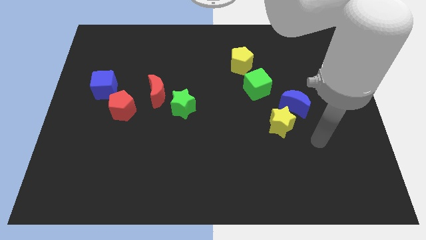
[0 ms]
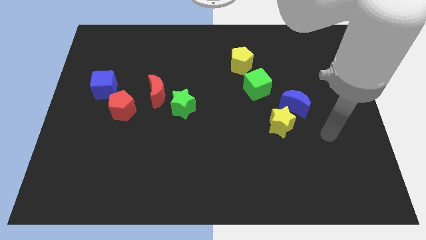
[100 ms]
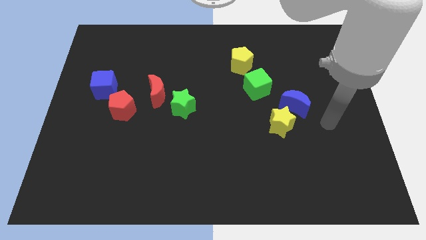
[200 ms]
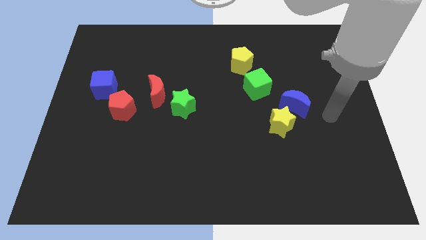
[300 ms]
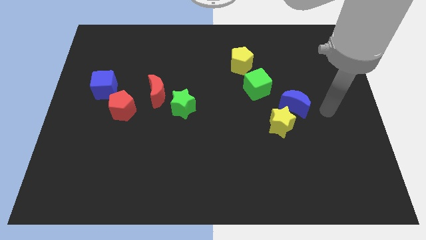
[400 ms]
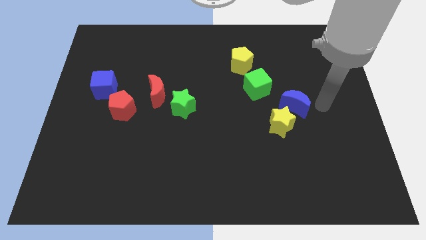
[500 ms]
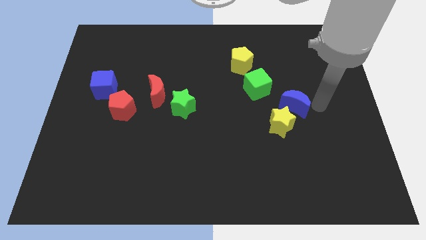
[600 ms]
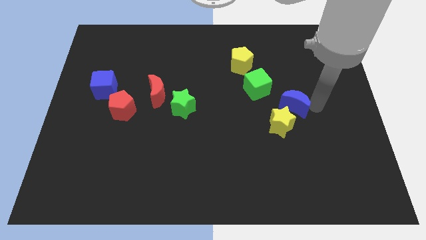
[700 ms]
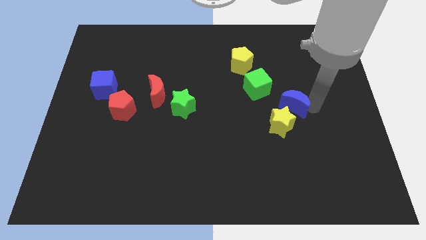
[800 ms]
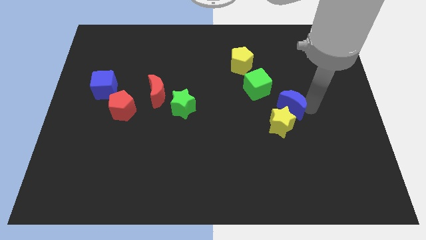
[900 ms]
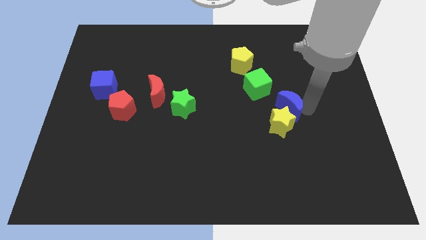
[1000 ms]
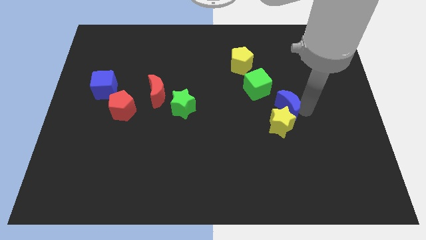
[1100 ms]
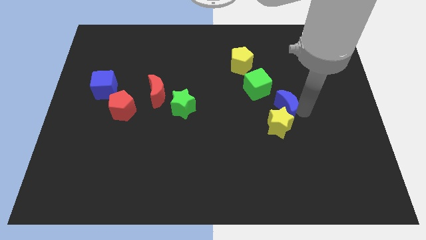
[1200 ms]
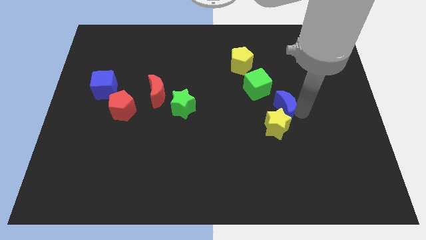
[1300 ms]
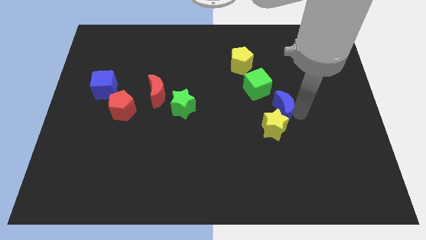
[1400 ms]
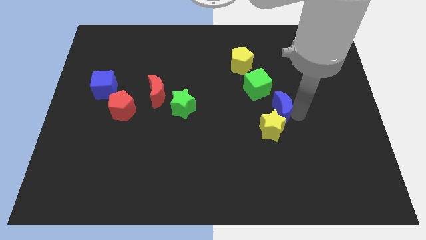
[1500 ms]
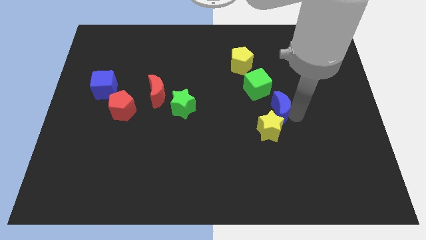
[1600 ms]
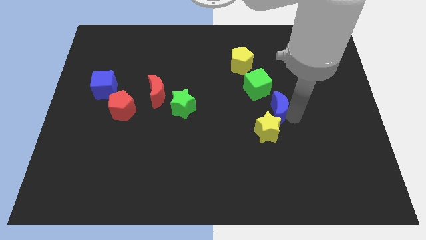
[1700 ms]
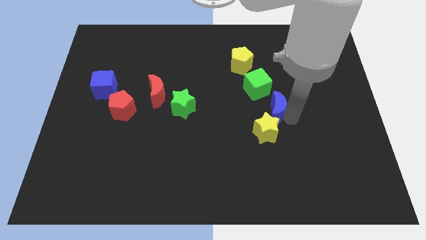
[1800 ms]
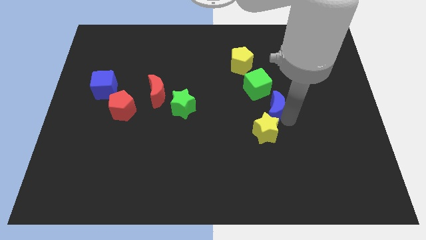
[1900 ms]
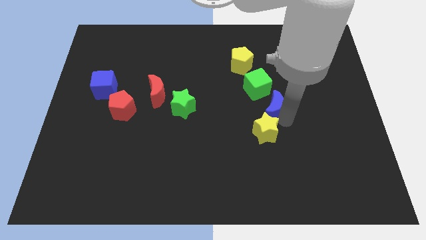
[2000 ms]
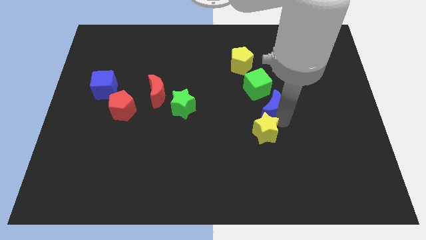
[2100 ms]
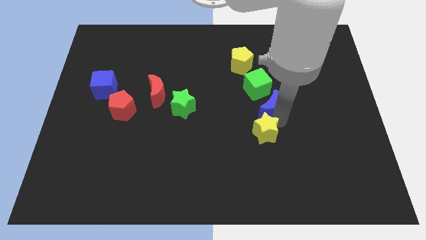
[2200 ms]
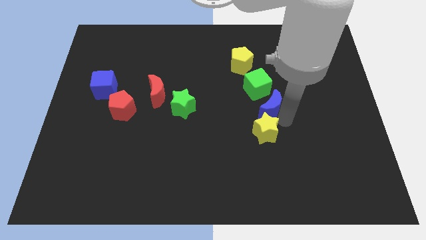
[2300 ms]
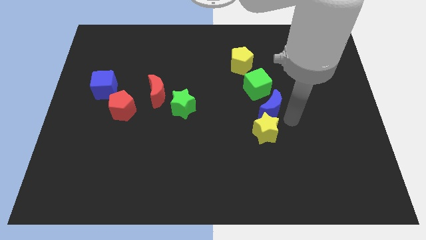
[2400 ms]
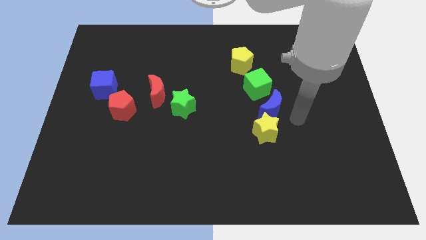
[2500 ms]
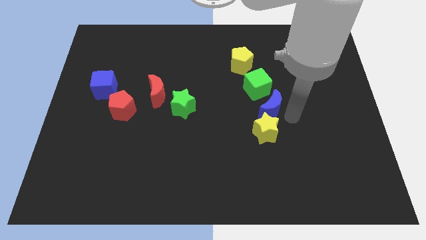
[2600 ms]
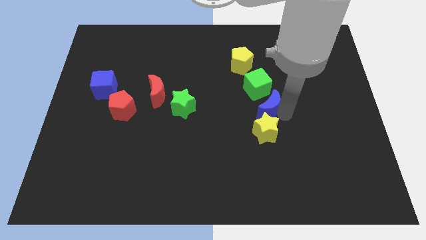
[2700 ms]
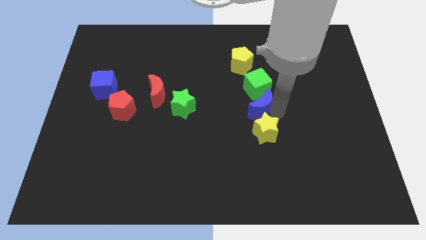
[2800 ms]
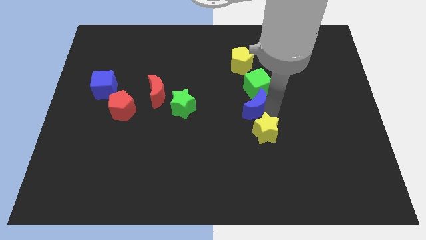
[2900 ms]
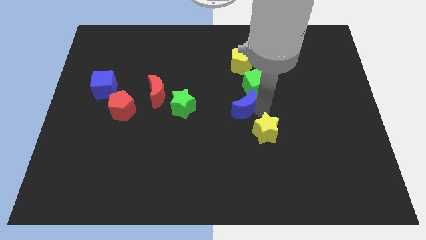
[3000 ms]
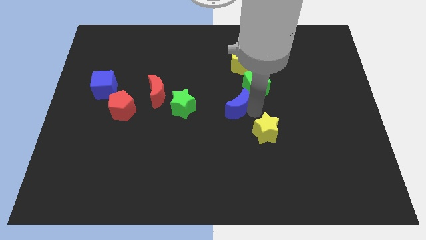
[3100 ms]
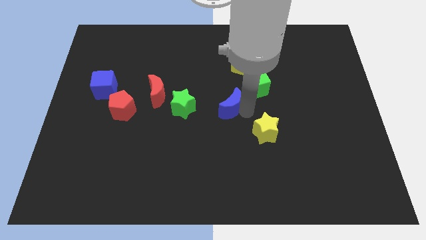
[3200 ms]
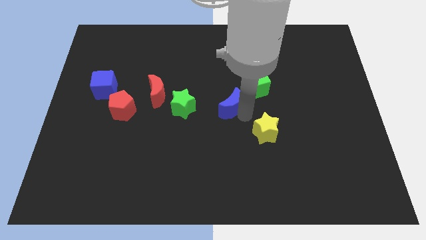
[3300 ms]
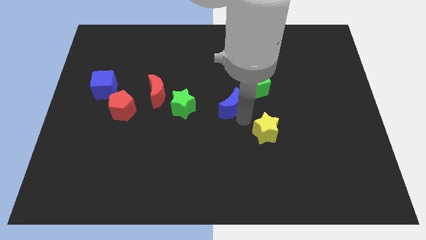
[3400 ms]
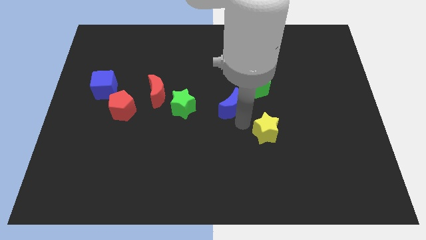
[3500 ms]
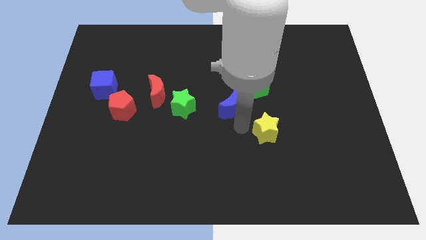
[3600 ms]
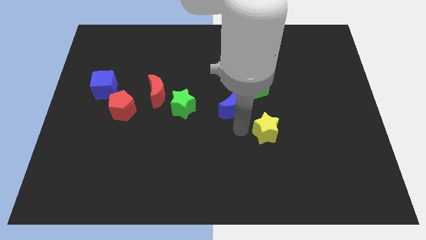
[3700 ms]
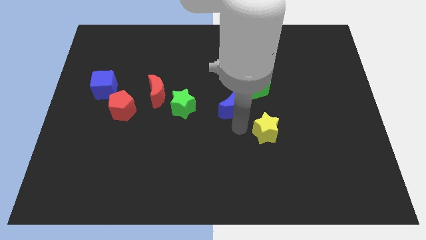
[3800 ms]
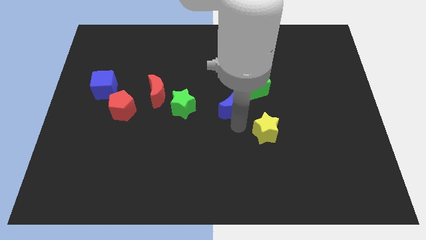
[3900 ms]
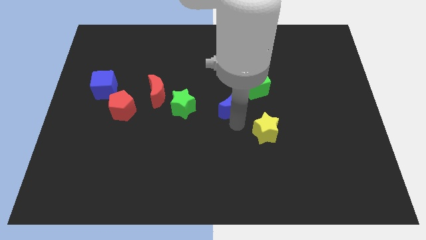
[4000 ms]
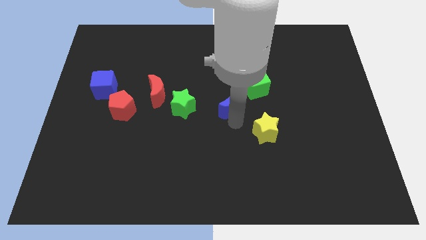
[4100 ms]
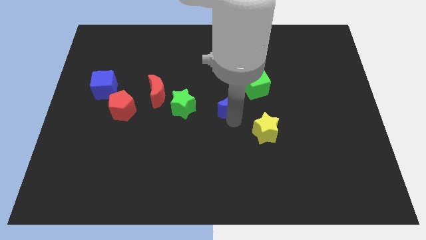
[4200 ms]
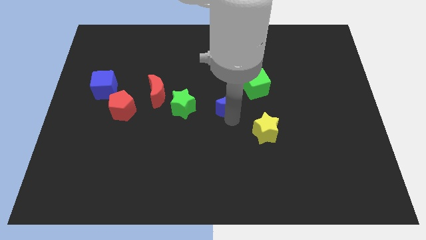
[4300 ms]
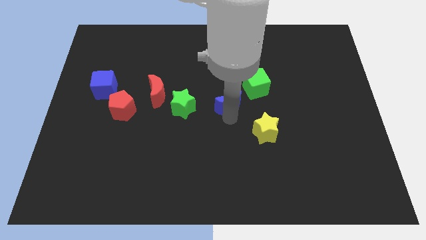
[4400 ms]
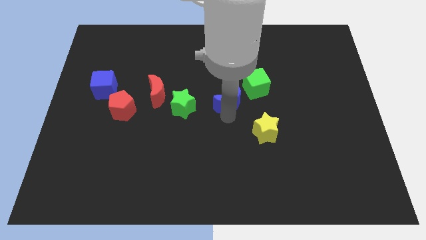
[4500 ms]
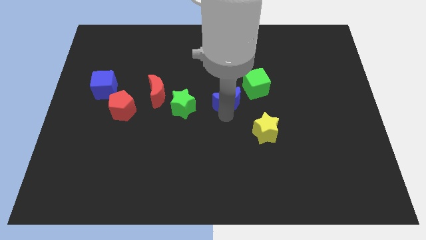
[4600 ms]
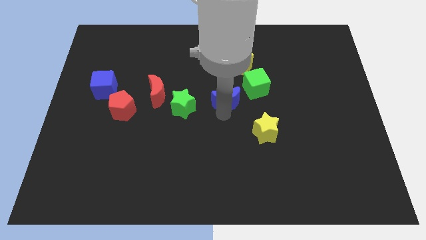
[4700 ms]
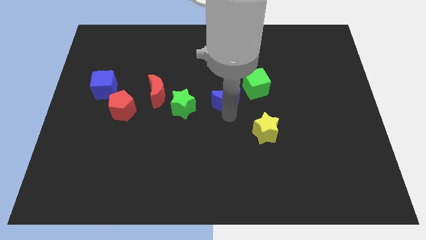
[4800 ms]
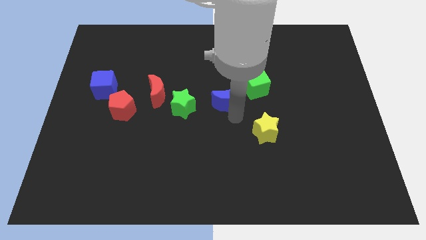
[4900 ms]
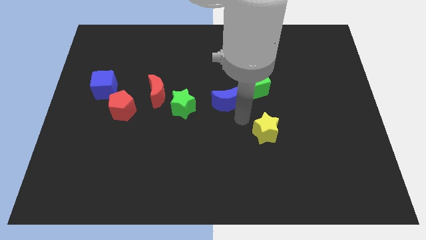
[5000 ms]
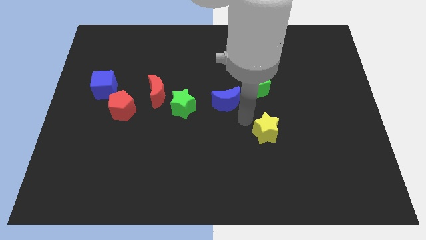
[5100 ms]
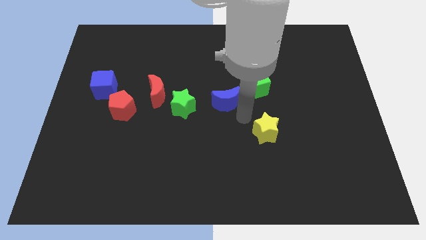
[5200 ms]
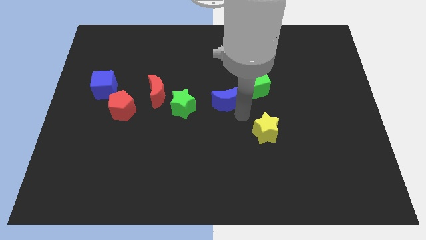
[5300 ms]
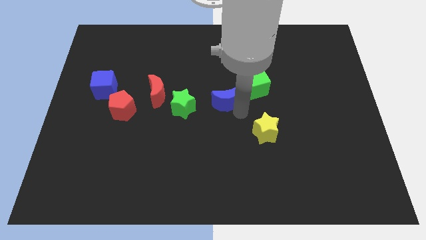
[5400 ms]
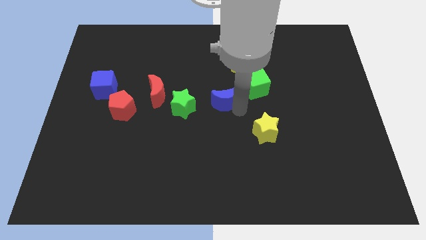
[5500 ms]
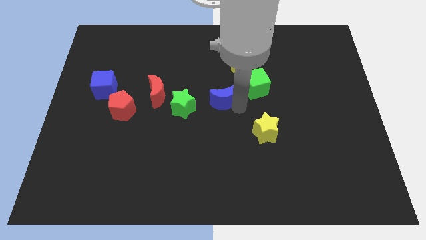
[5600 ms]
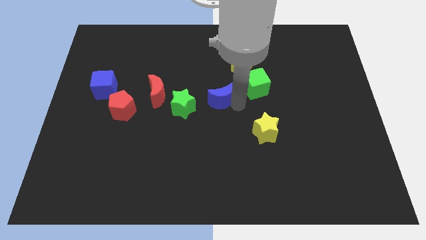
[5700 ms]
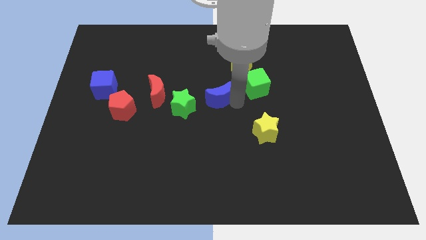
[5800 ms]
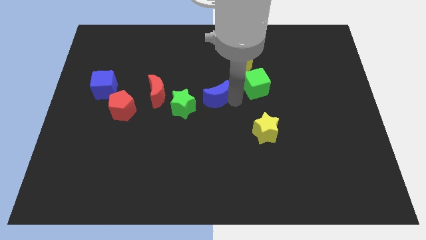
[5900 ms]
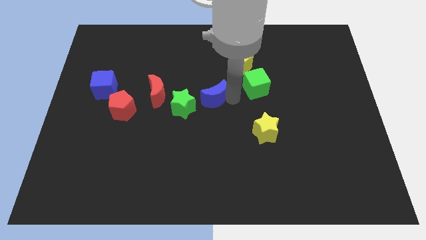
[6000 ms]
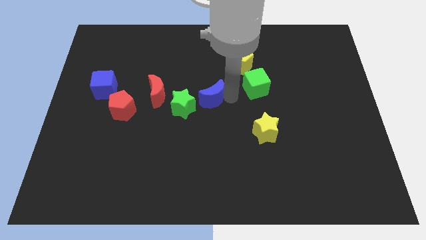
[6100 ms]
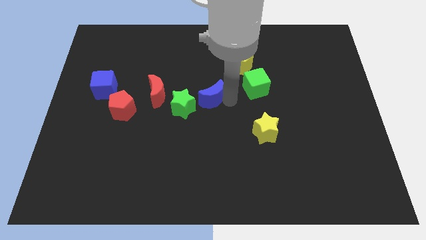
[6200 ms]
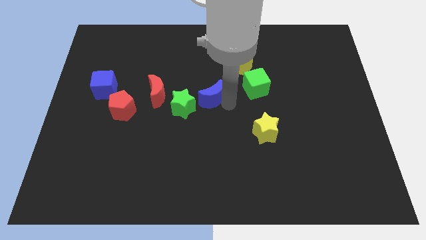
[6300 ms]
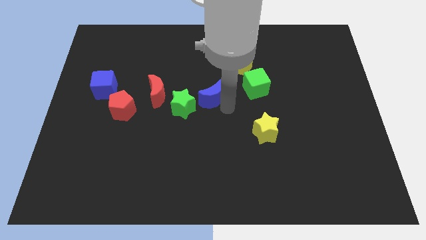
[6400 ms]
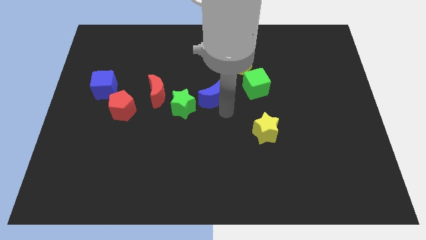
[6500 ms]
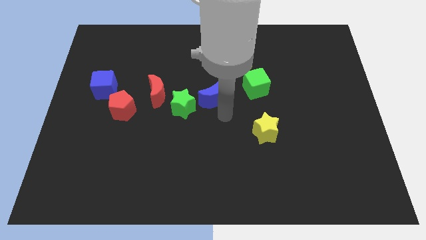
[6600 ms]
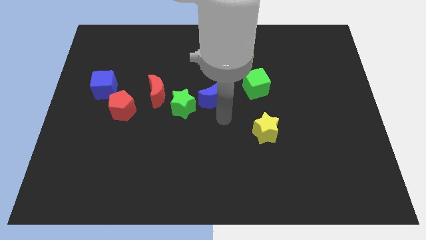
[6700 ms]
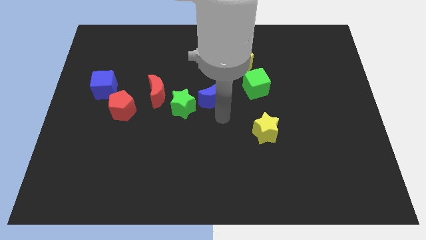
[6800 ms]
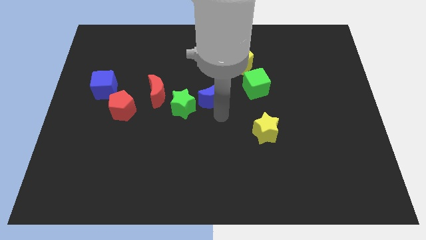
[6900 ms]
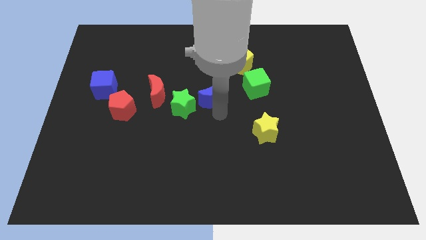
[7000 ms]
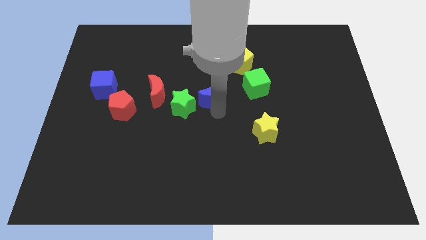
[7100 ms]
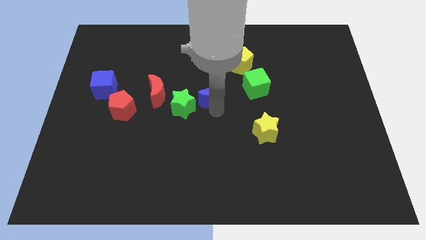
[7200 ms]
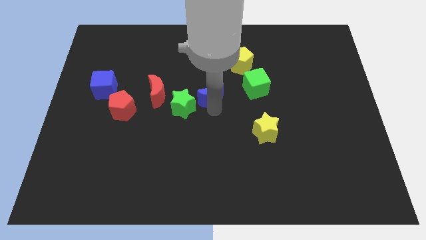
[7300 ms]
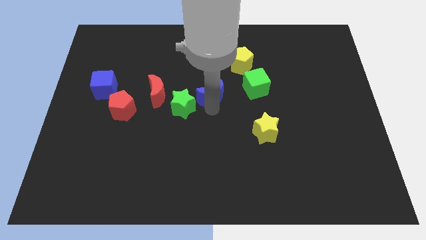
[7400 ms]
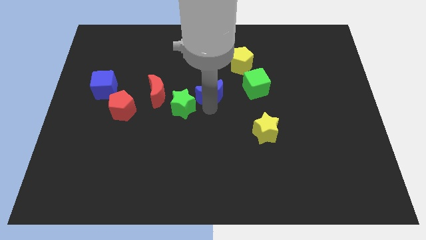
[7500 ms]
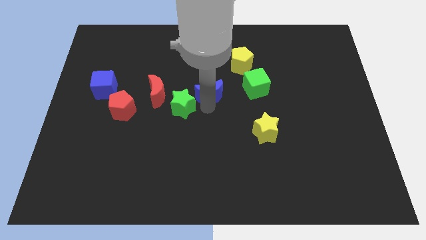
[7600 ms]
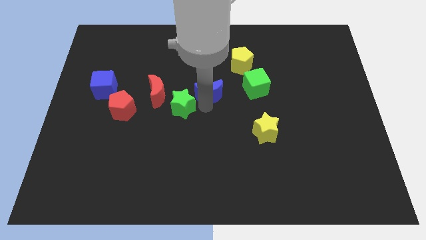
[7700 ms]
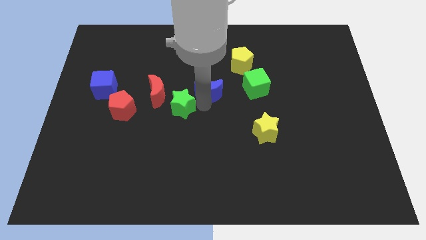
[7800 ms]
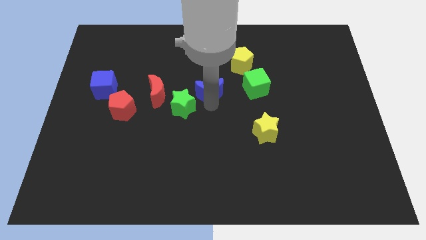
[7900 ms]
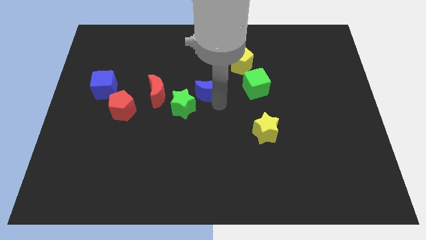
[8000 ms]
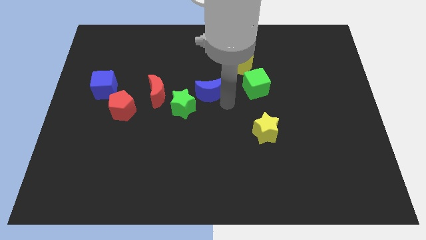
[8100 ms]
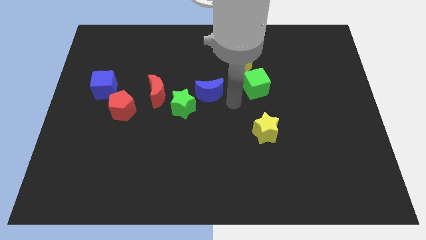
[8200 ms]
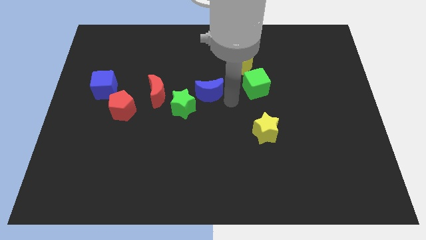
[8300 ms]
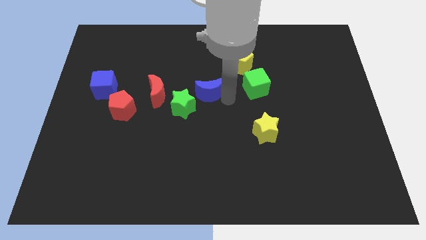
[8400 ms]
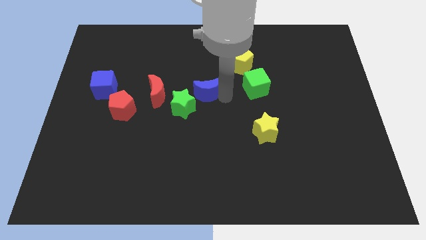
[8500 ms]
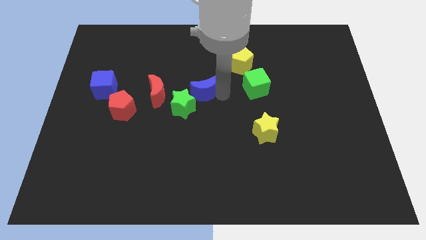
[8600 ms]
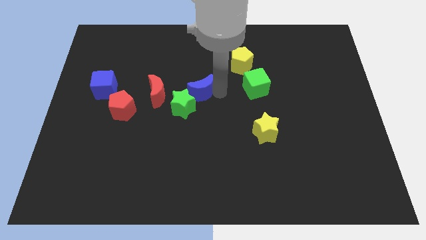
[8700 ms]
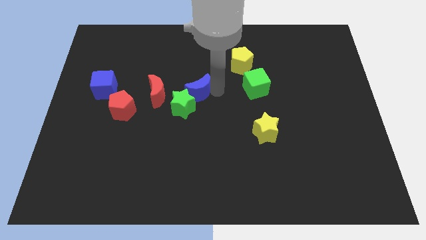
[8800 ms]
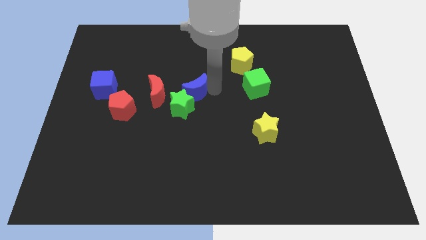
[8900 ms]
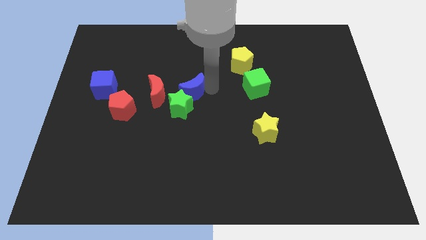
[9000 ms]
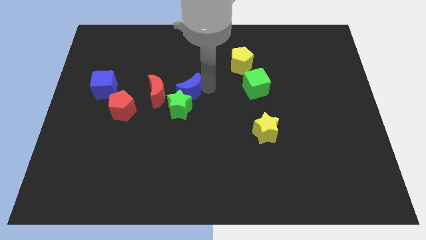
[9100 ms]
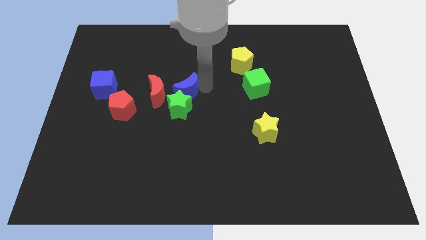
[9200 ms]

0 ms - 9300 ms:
push the blue moon to the top left side of the green star
